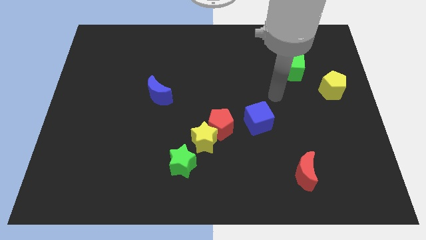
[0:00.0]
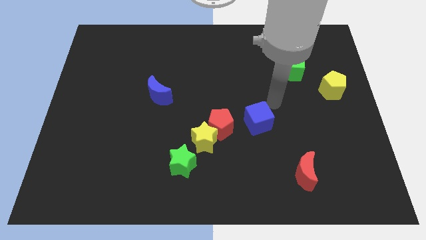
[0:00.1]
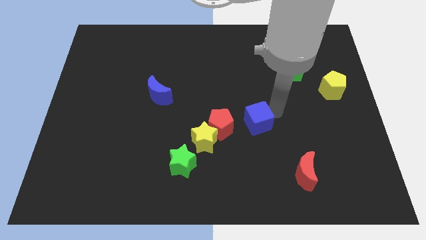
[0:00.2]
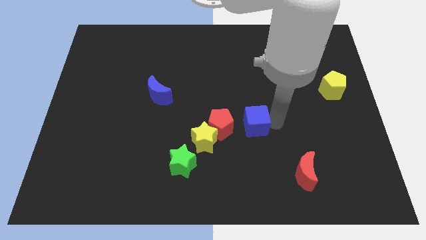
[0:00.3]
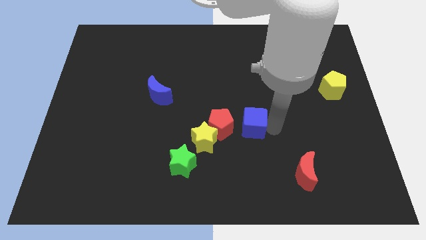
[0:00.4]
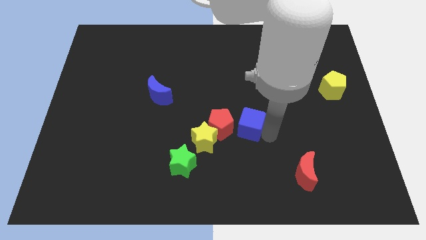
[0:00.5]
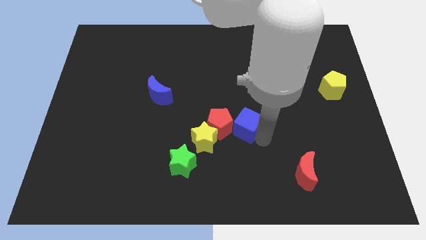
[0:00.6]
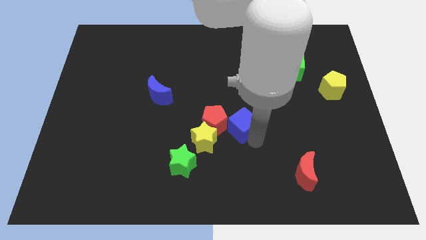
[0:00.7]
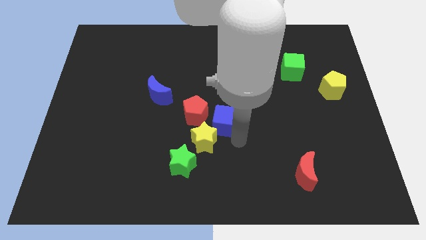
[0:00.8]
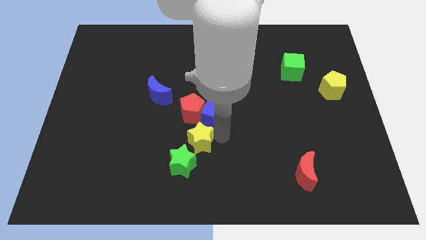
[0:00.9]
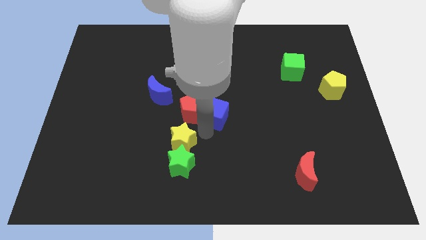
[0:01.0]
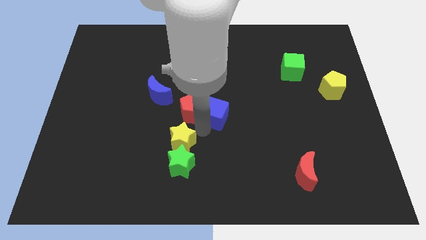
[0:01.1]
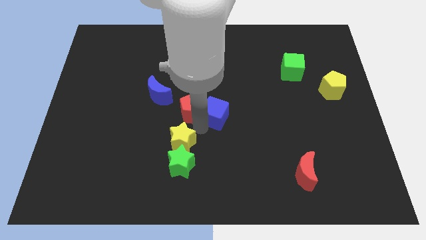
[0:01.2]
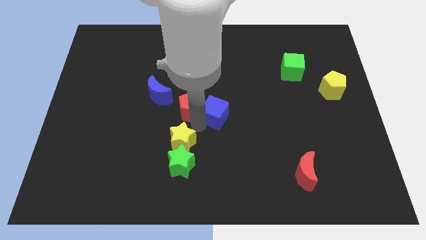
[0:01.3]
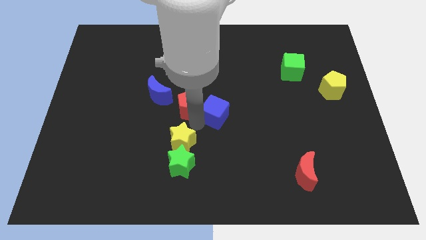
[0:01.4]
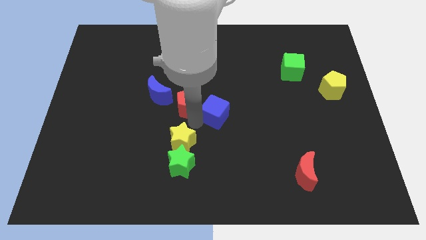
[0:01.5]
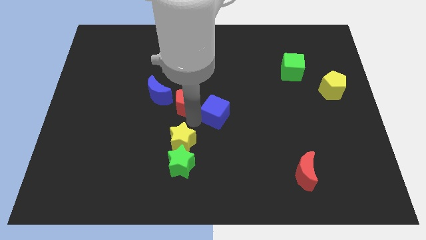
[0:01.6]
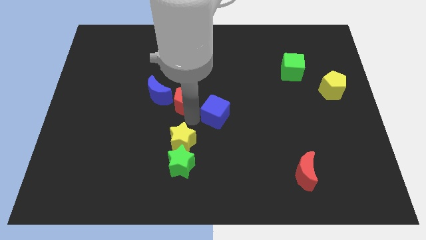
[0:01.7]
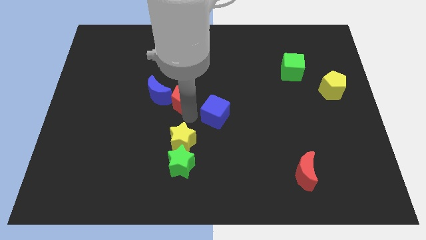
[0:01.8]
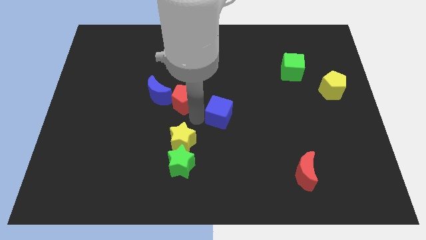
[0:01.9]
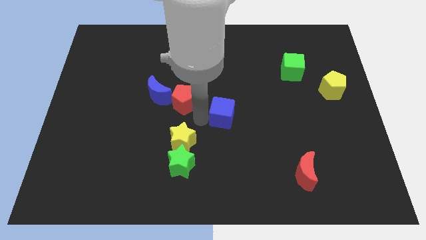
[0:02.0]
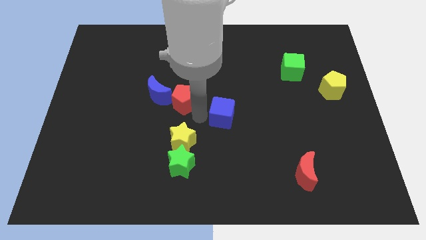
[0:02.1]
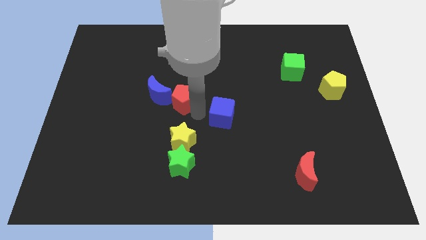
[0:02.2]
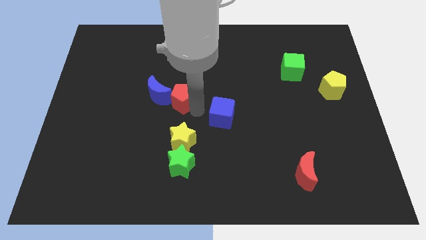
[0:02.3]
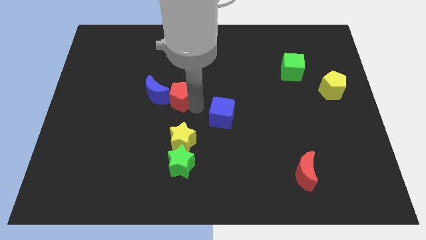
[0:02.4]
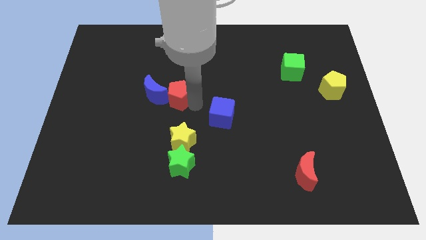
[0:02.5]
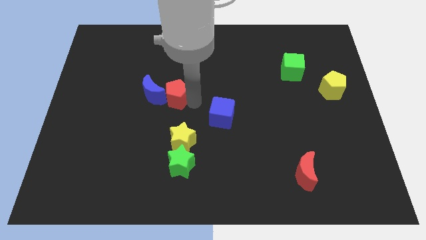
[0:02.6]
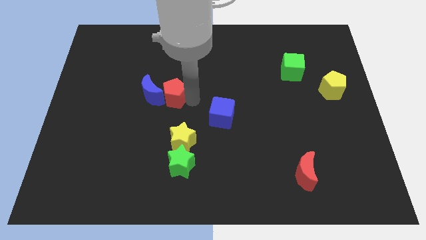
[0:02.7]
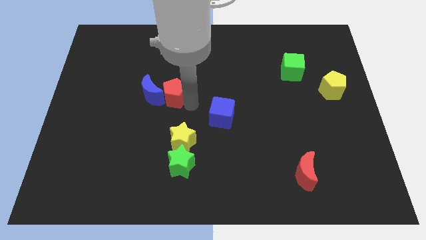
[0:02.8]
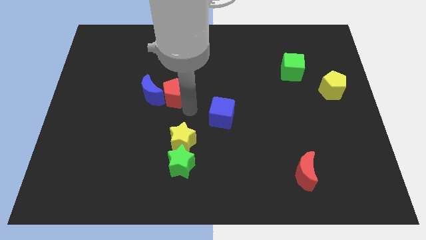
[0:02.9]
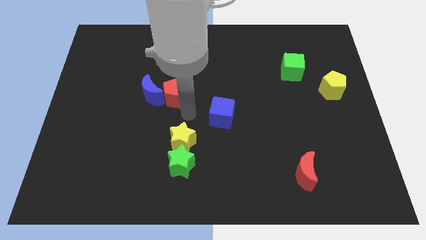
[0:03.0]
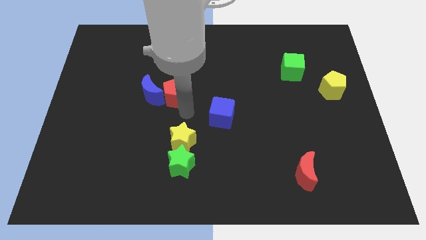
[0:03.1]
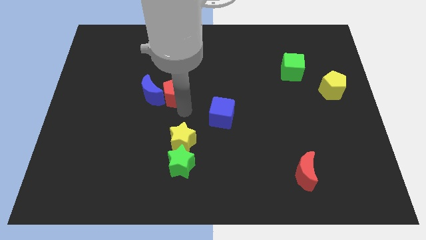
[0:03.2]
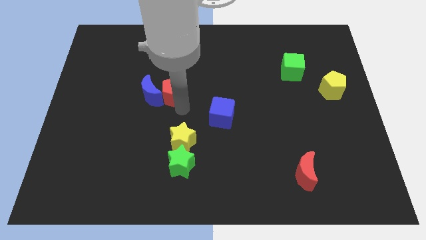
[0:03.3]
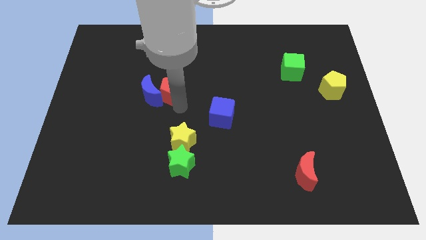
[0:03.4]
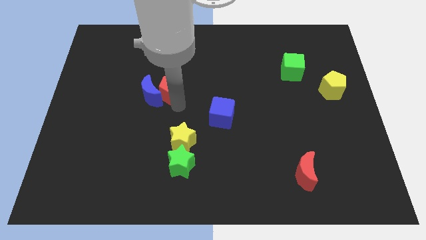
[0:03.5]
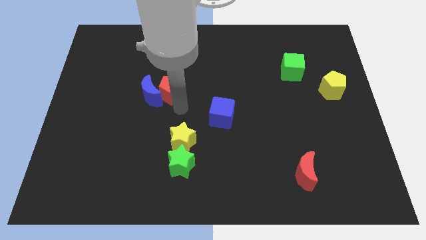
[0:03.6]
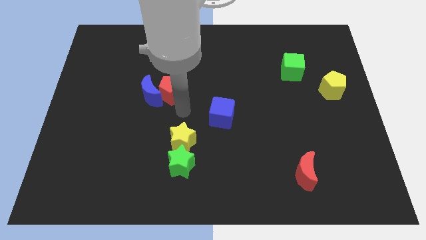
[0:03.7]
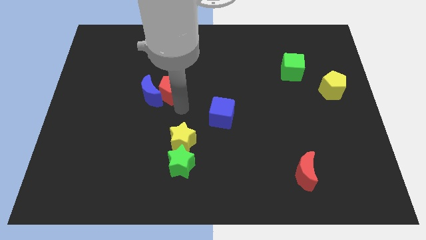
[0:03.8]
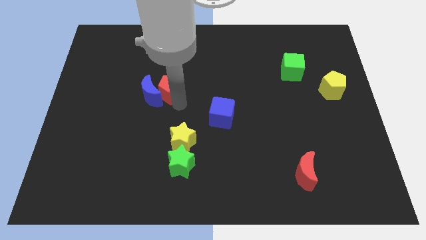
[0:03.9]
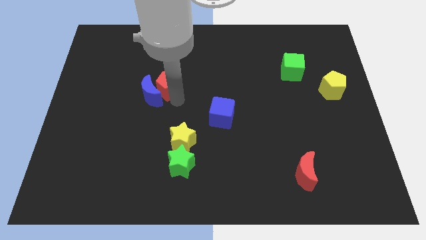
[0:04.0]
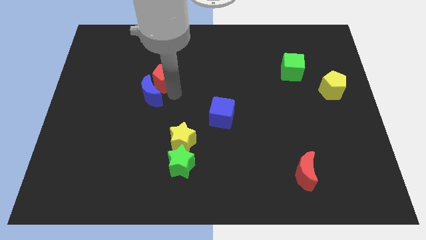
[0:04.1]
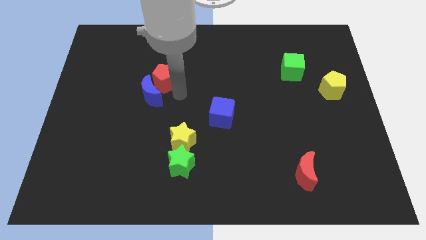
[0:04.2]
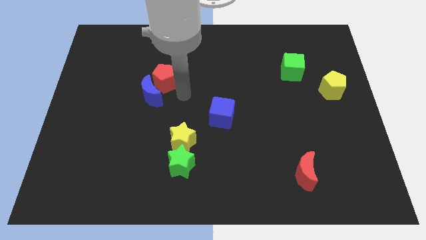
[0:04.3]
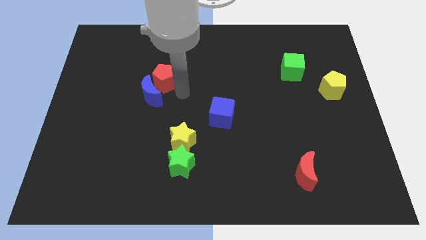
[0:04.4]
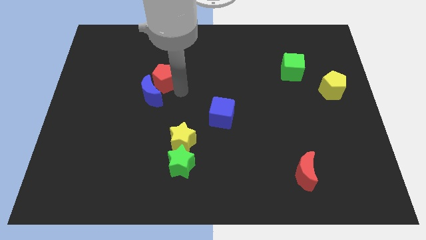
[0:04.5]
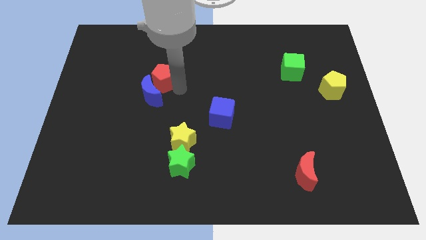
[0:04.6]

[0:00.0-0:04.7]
push the red pentagon diagonally up and left

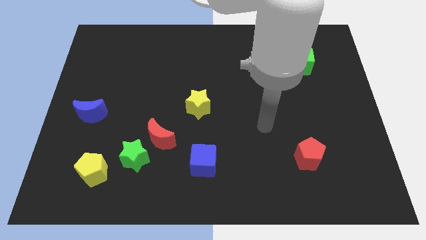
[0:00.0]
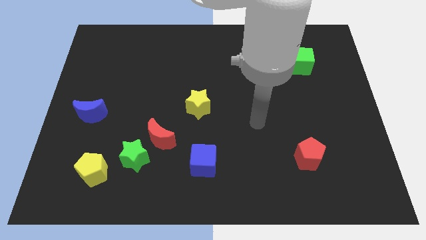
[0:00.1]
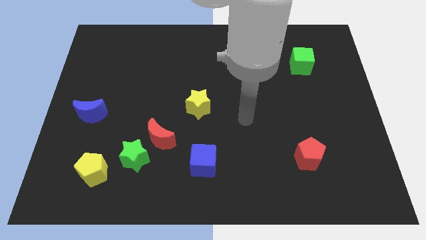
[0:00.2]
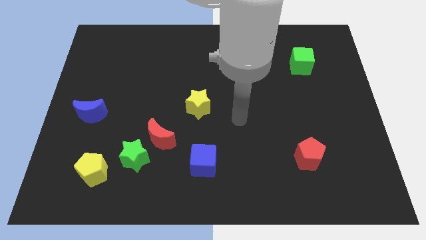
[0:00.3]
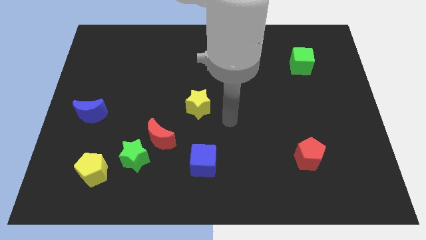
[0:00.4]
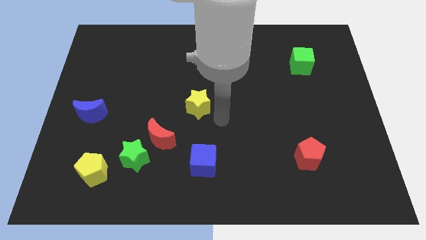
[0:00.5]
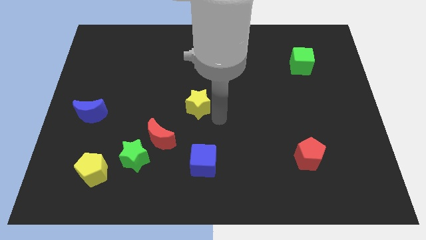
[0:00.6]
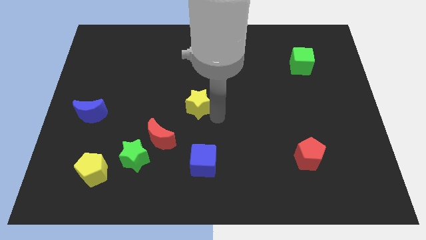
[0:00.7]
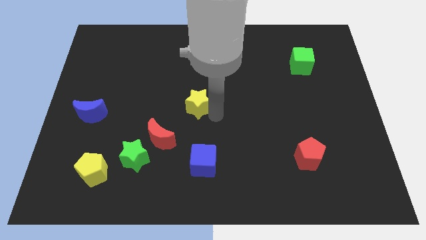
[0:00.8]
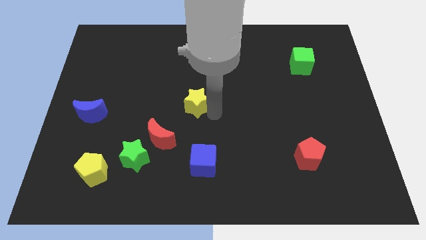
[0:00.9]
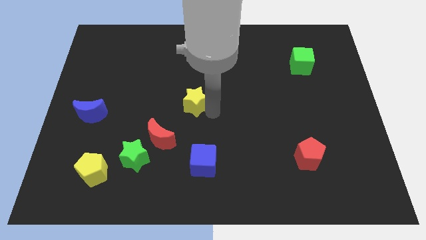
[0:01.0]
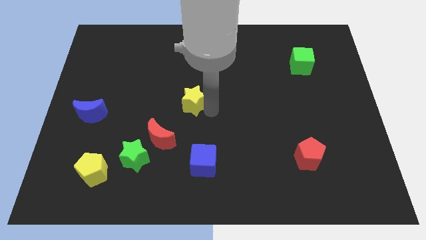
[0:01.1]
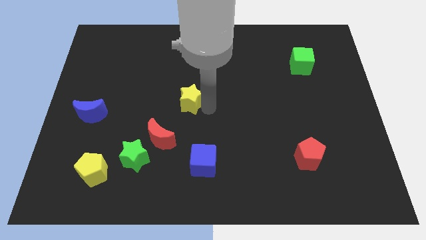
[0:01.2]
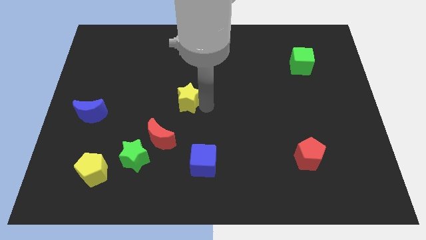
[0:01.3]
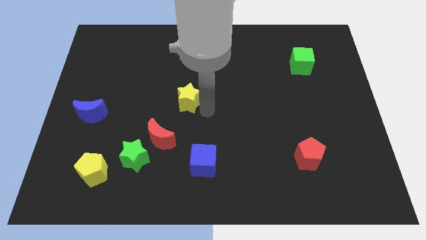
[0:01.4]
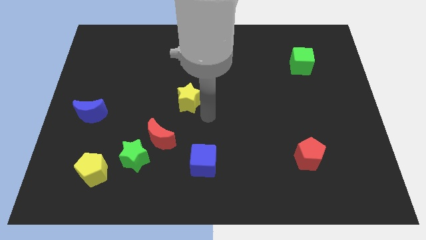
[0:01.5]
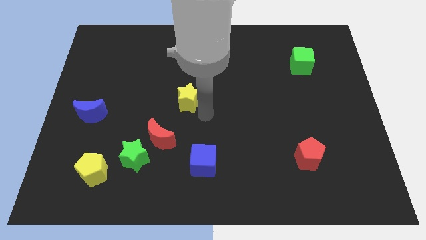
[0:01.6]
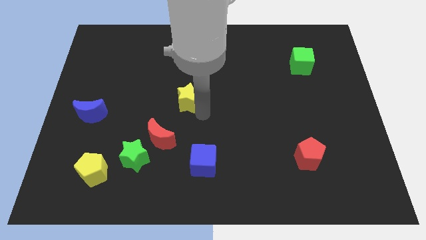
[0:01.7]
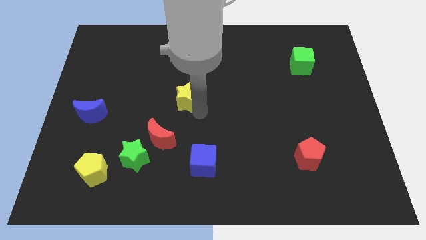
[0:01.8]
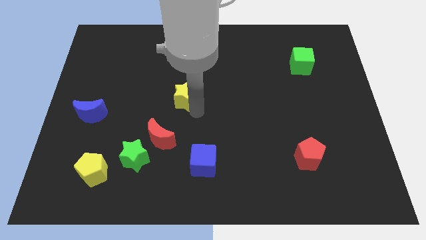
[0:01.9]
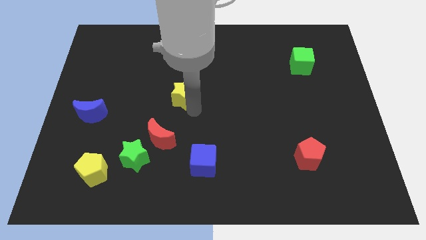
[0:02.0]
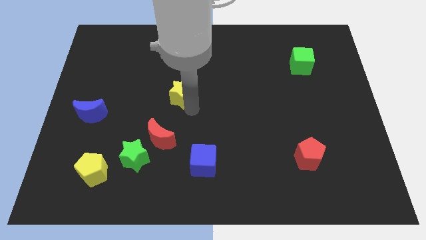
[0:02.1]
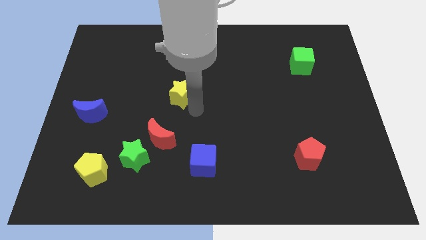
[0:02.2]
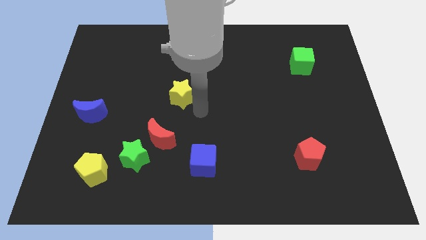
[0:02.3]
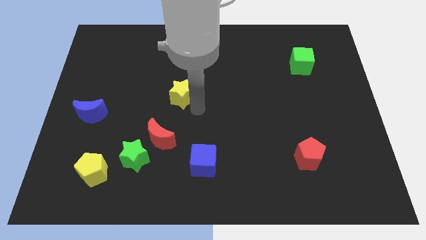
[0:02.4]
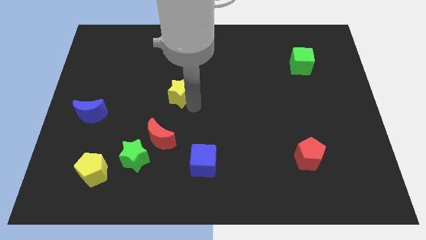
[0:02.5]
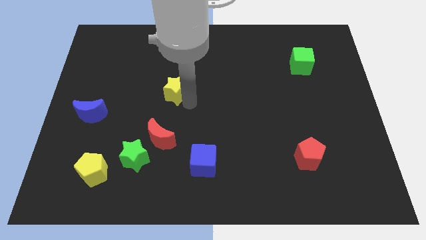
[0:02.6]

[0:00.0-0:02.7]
push the yellow star a bit up and to the left

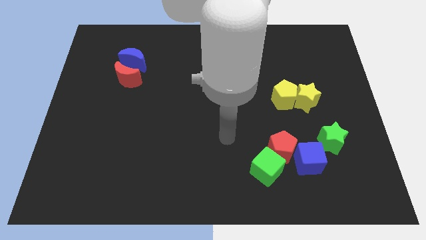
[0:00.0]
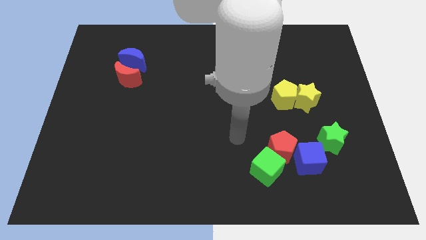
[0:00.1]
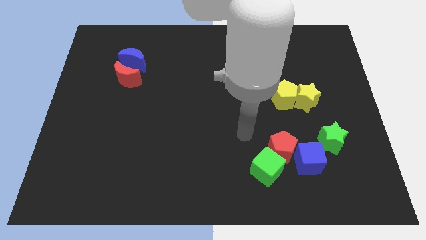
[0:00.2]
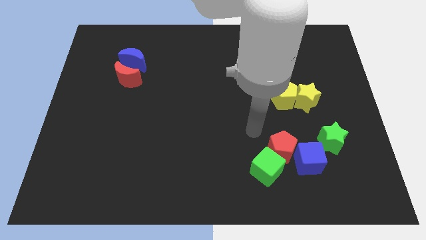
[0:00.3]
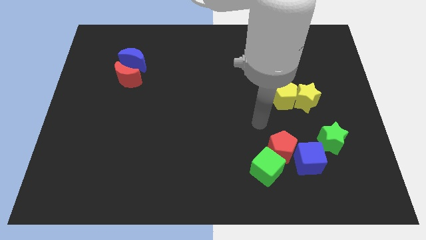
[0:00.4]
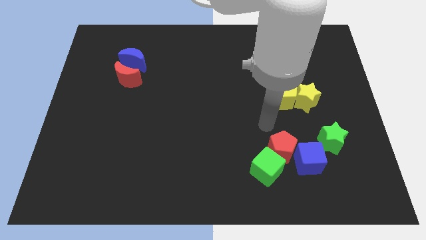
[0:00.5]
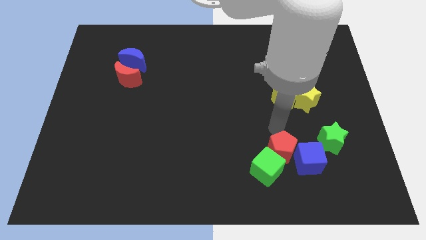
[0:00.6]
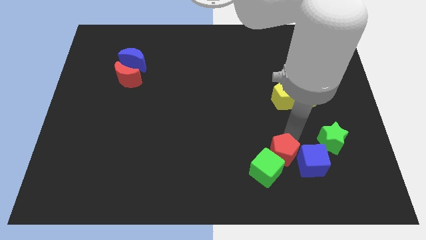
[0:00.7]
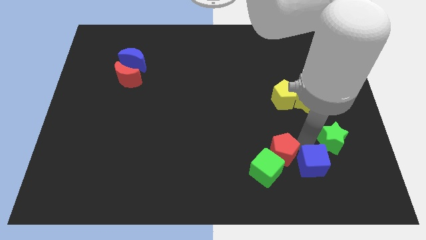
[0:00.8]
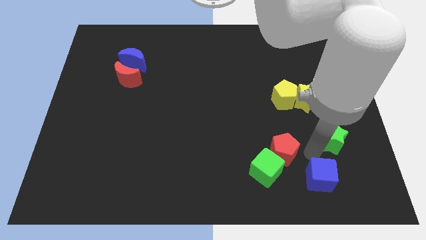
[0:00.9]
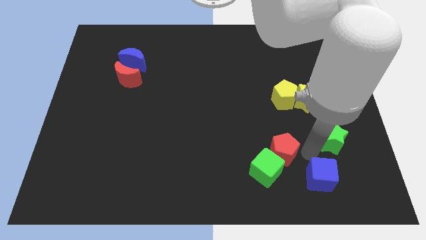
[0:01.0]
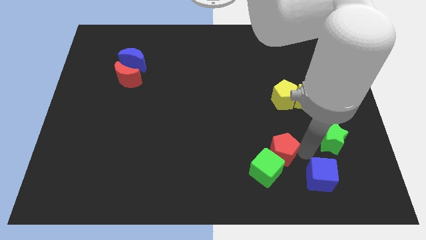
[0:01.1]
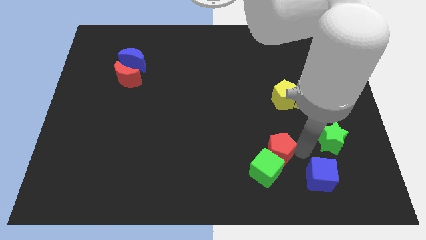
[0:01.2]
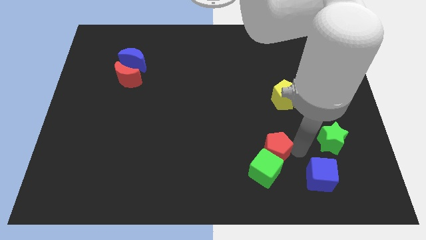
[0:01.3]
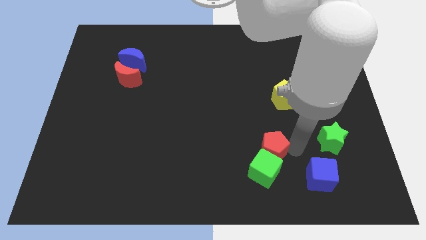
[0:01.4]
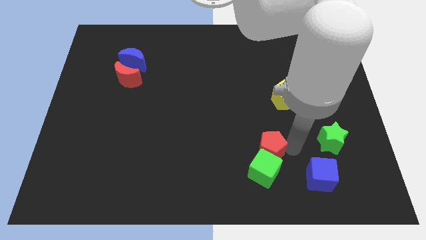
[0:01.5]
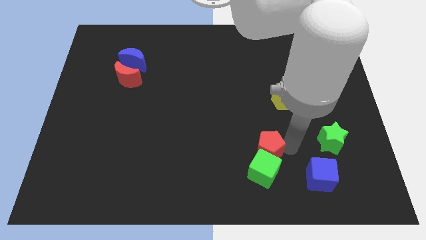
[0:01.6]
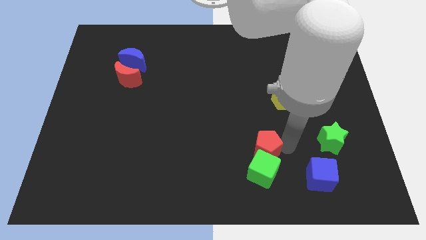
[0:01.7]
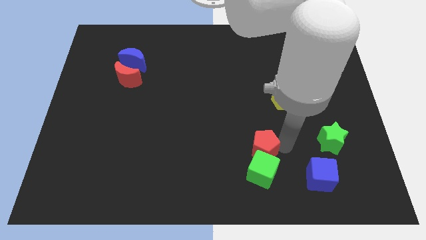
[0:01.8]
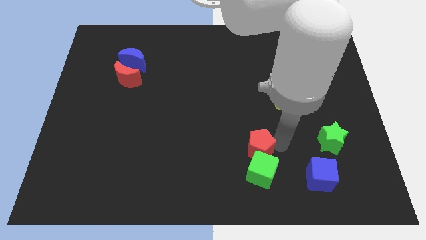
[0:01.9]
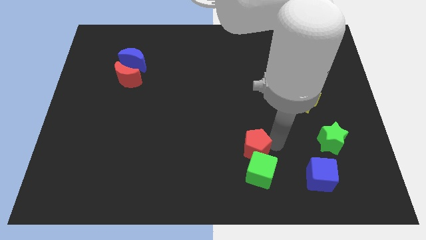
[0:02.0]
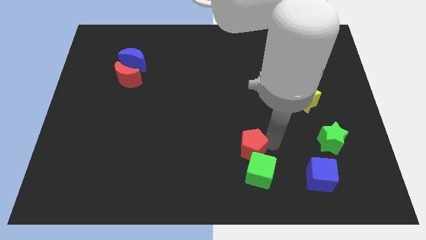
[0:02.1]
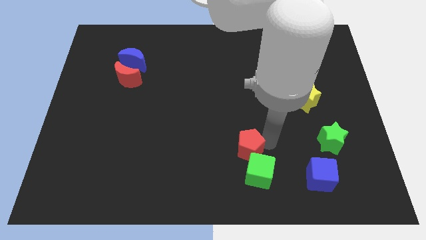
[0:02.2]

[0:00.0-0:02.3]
slightly slide the red pentagon to the left
